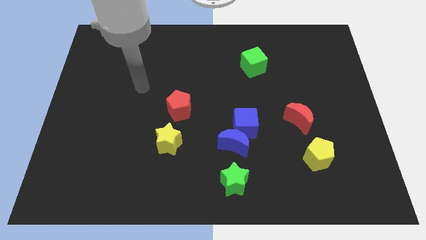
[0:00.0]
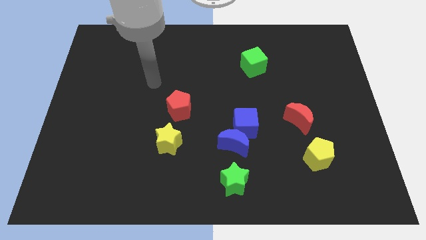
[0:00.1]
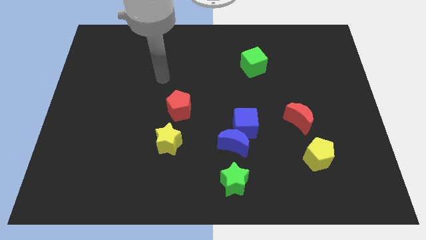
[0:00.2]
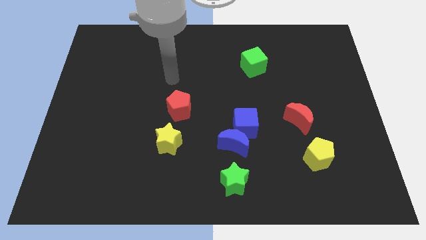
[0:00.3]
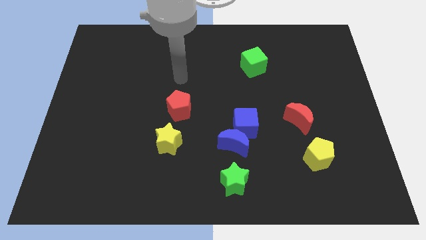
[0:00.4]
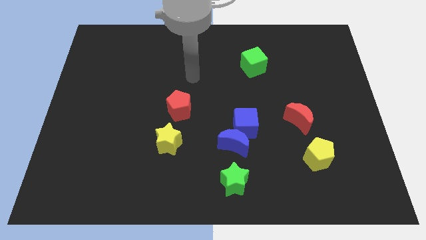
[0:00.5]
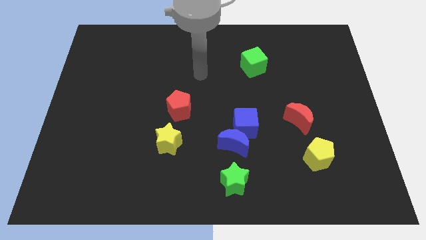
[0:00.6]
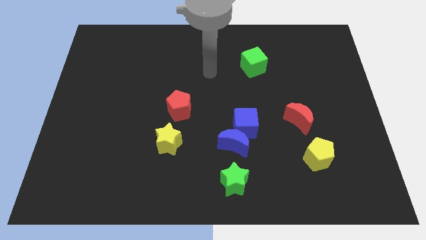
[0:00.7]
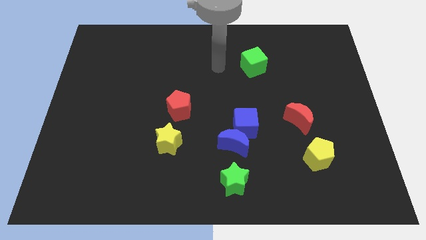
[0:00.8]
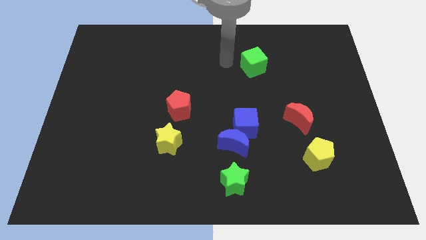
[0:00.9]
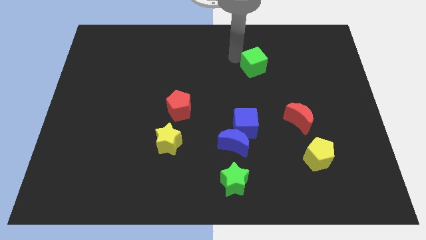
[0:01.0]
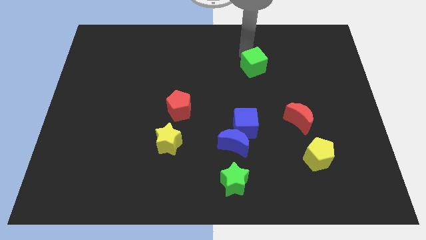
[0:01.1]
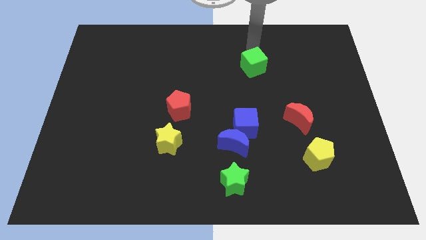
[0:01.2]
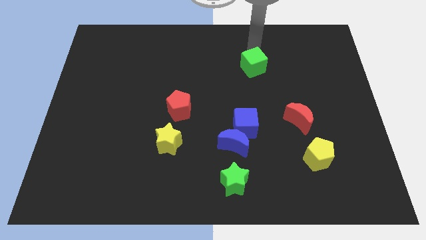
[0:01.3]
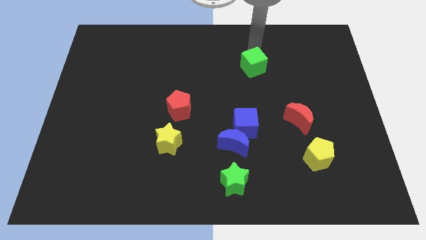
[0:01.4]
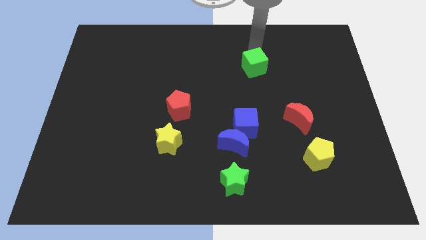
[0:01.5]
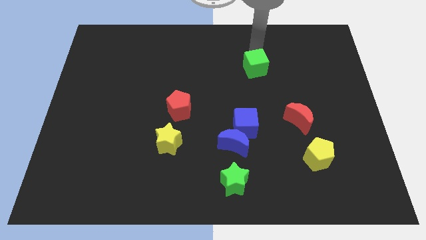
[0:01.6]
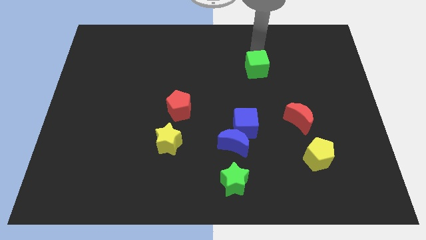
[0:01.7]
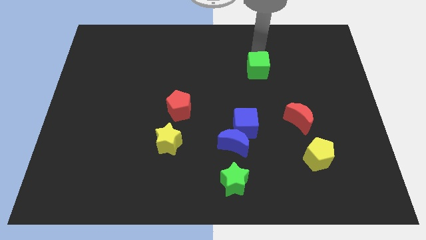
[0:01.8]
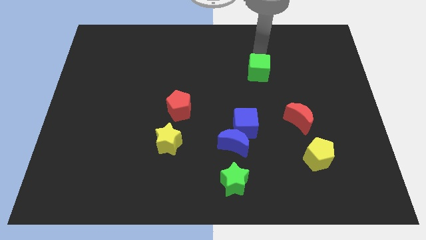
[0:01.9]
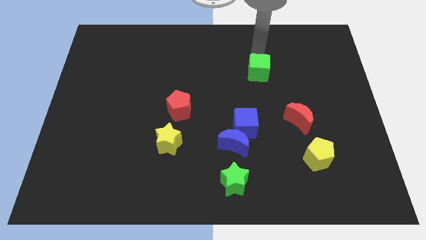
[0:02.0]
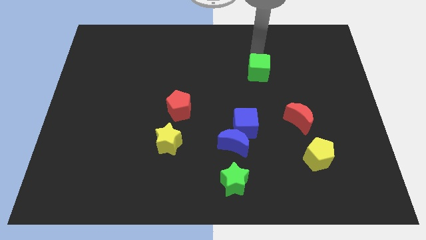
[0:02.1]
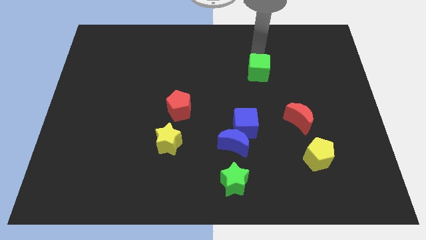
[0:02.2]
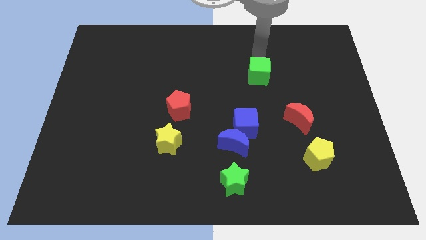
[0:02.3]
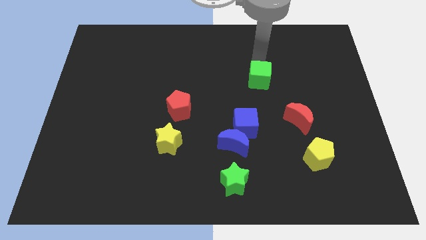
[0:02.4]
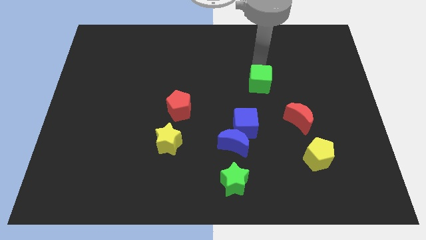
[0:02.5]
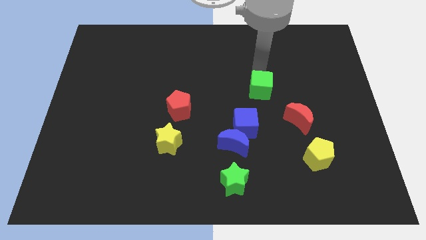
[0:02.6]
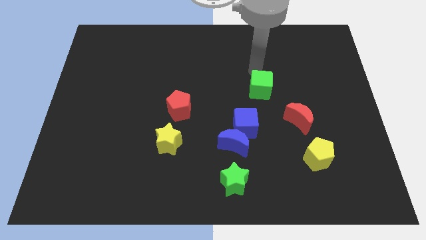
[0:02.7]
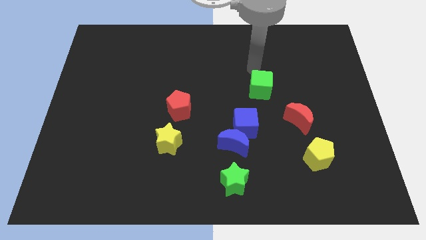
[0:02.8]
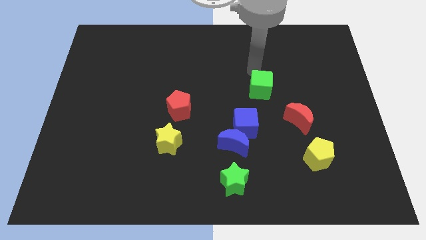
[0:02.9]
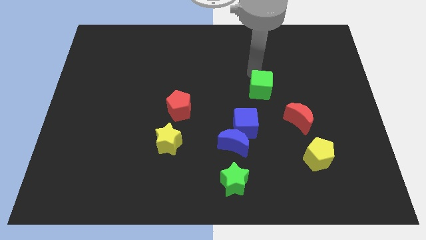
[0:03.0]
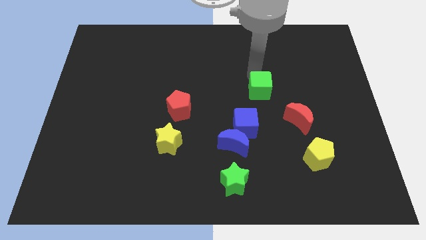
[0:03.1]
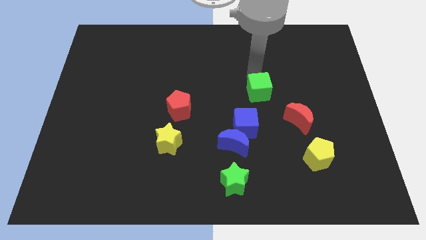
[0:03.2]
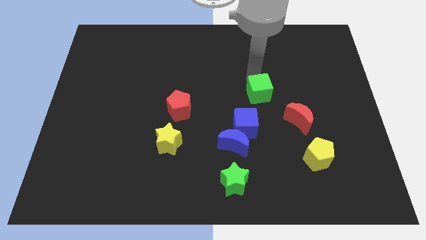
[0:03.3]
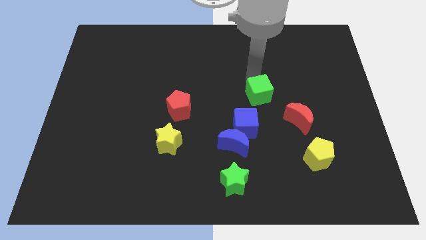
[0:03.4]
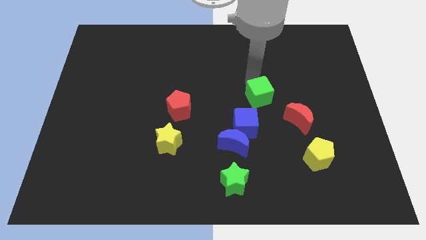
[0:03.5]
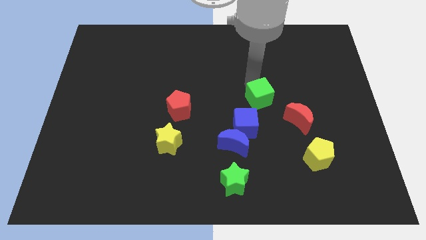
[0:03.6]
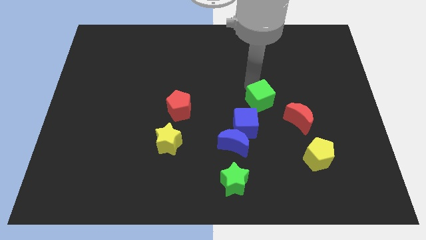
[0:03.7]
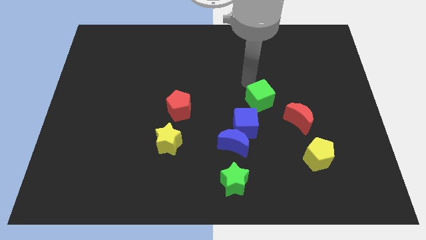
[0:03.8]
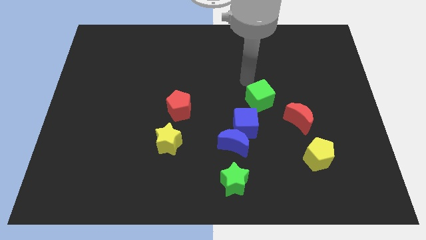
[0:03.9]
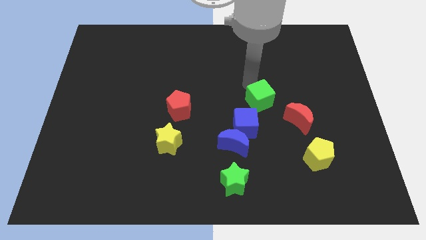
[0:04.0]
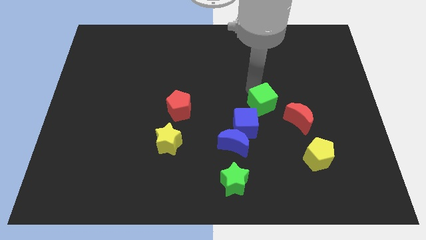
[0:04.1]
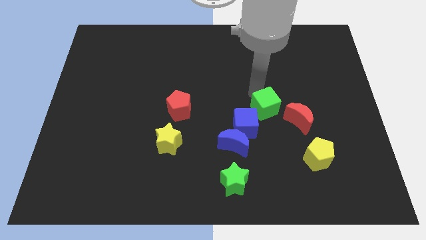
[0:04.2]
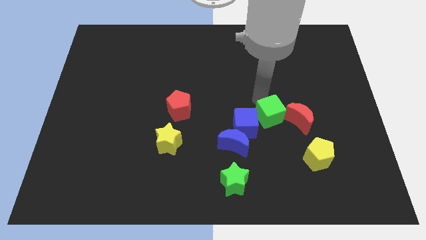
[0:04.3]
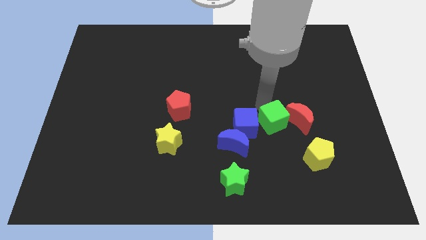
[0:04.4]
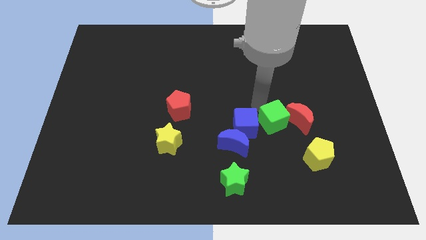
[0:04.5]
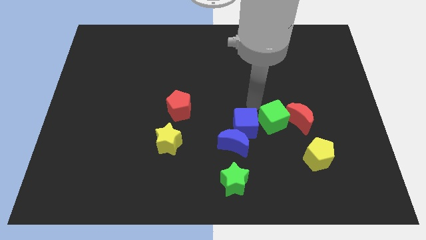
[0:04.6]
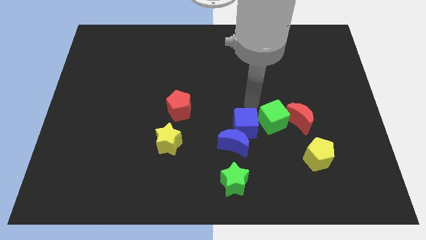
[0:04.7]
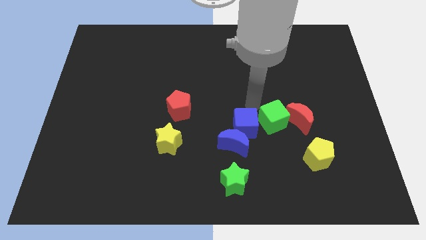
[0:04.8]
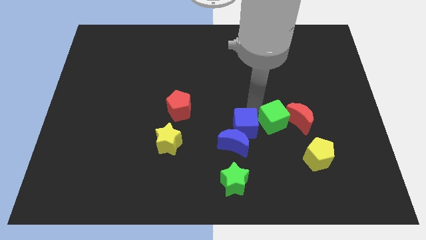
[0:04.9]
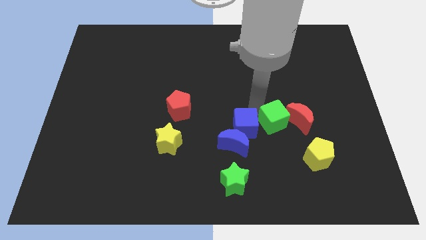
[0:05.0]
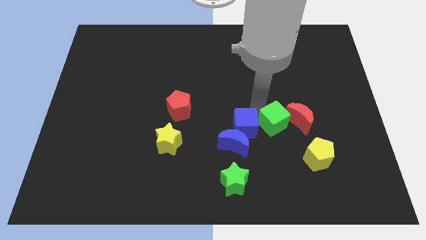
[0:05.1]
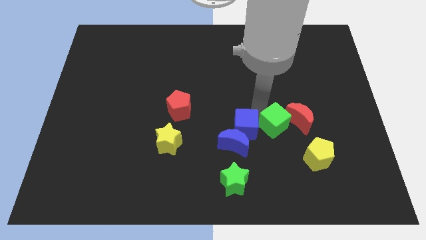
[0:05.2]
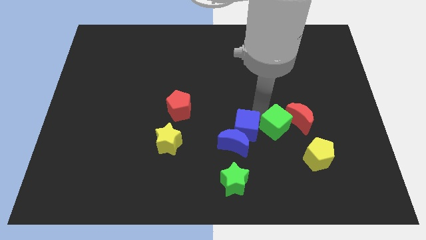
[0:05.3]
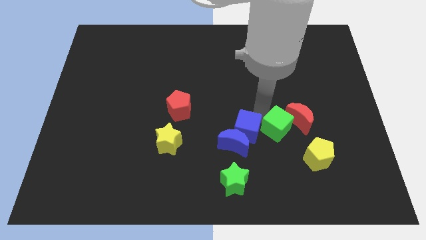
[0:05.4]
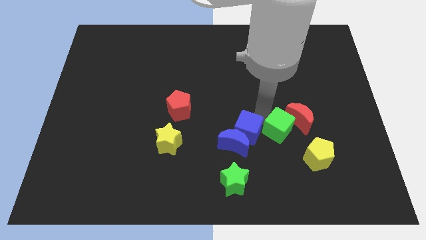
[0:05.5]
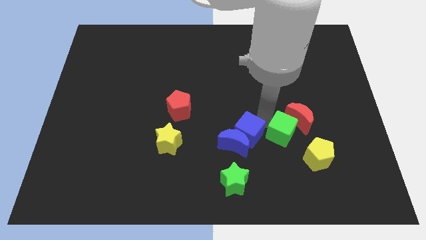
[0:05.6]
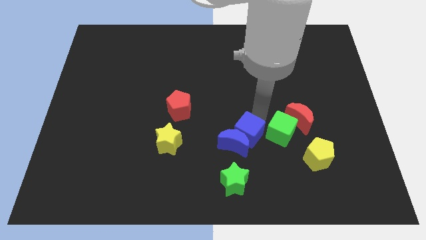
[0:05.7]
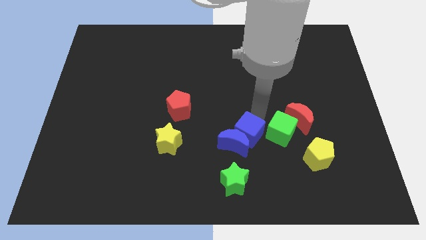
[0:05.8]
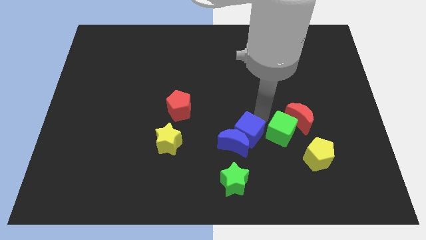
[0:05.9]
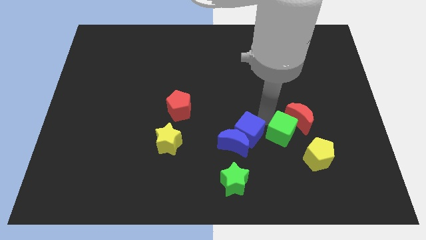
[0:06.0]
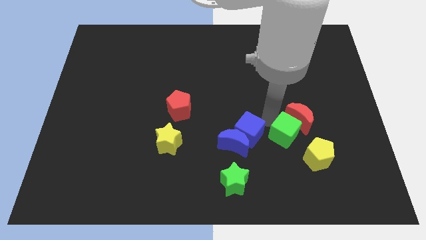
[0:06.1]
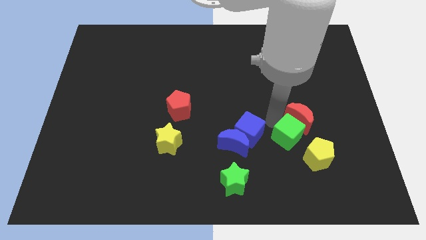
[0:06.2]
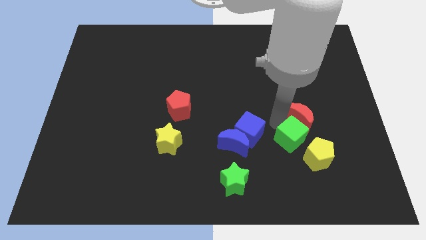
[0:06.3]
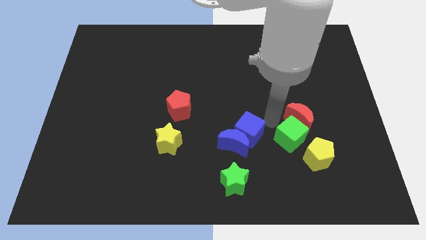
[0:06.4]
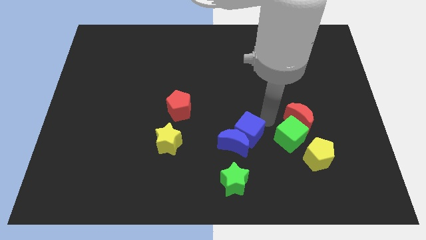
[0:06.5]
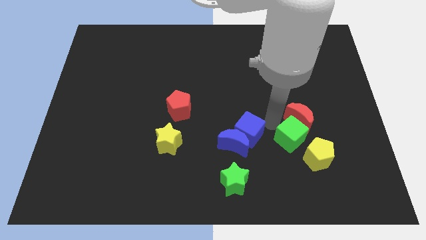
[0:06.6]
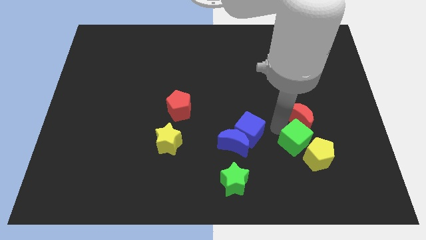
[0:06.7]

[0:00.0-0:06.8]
move the green cube next to the yellow pentagon

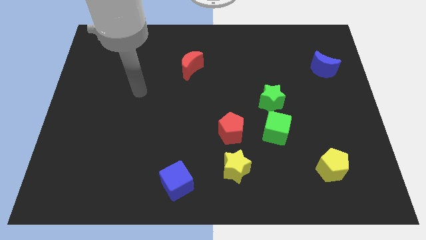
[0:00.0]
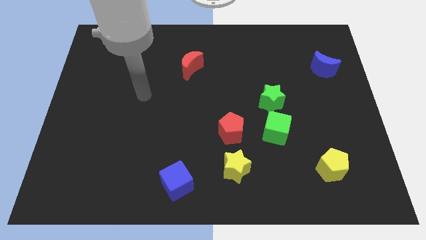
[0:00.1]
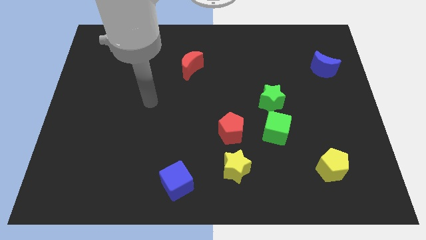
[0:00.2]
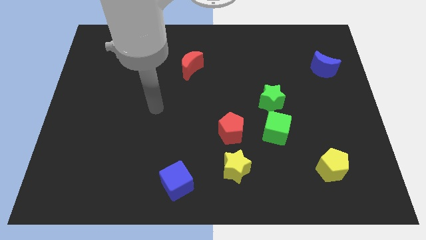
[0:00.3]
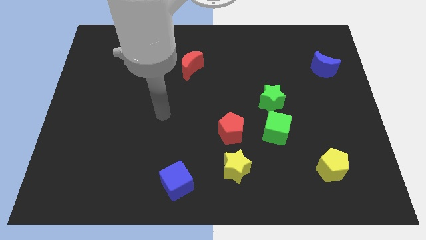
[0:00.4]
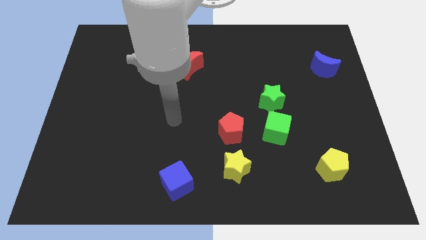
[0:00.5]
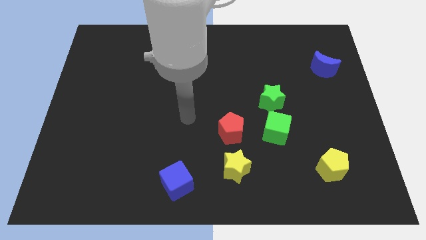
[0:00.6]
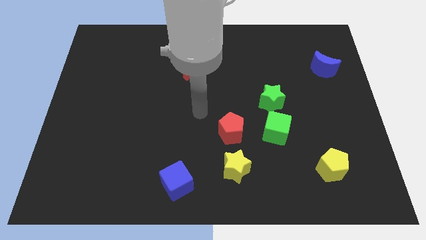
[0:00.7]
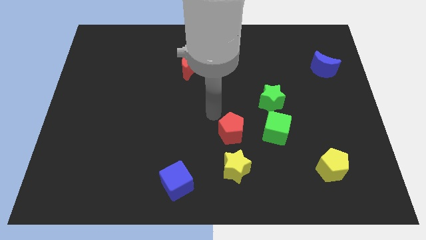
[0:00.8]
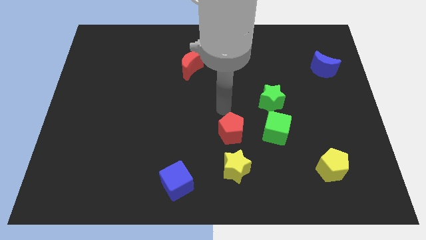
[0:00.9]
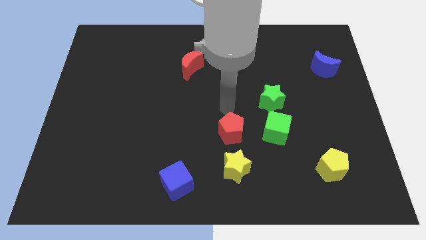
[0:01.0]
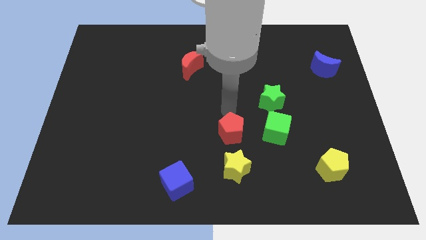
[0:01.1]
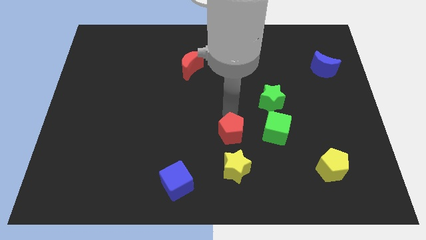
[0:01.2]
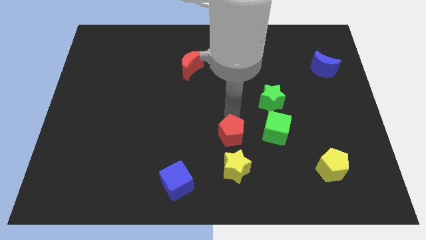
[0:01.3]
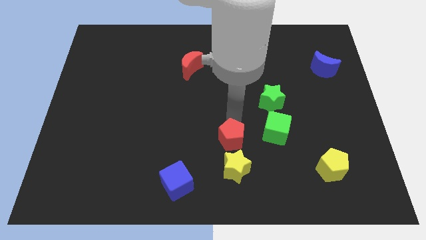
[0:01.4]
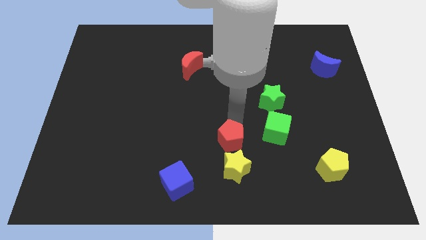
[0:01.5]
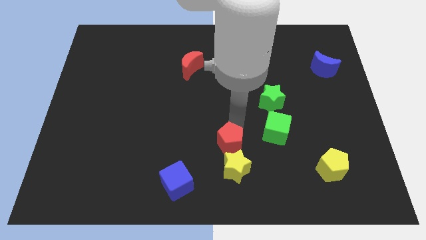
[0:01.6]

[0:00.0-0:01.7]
slide the red pentagon next to the yellow star
